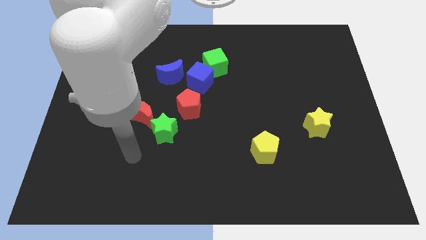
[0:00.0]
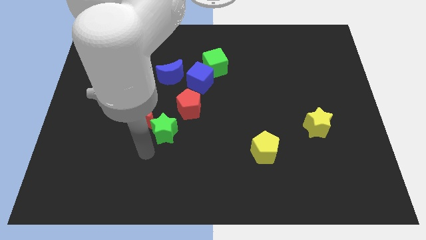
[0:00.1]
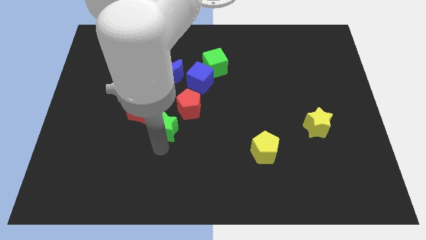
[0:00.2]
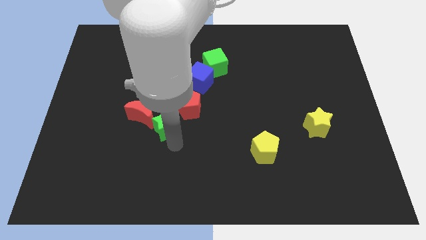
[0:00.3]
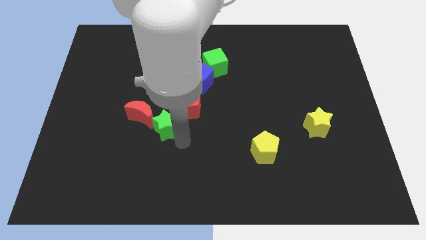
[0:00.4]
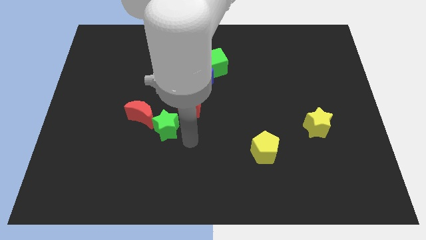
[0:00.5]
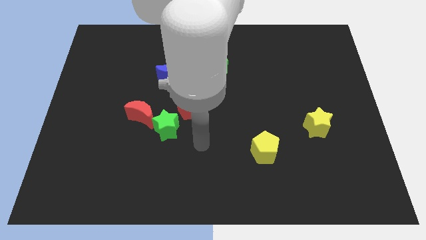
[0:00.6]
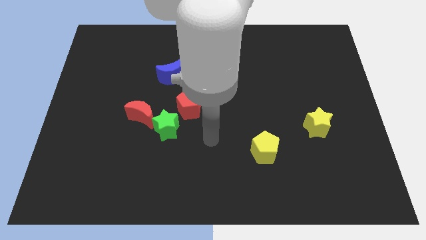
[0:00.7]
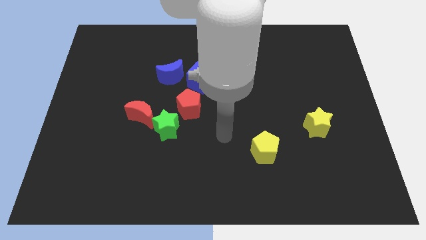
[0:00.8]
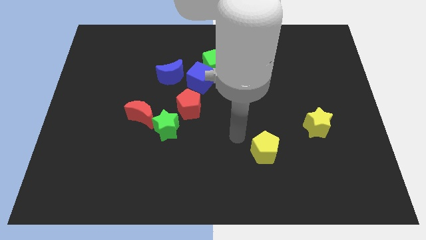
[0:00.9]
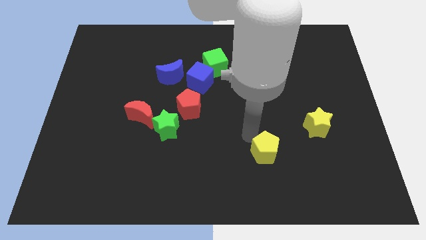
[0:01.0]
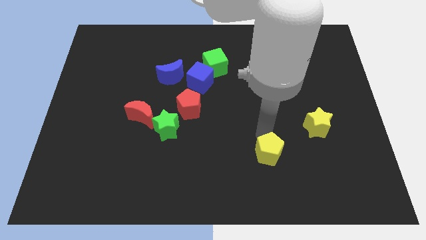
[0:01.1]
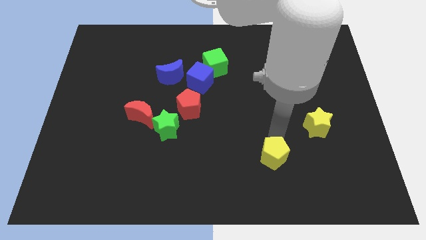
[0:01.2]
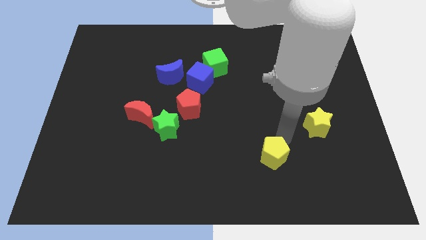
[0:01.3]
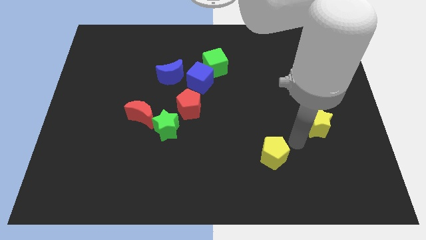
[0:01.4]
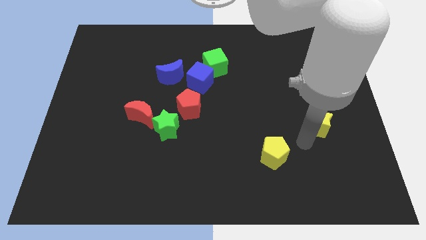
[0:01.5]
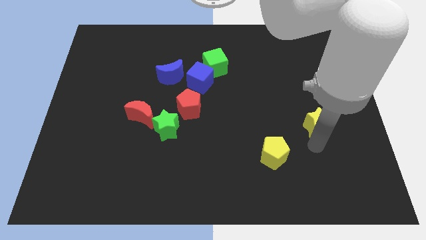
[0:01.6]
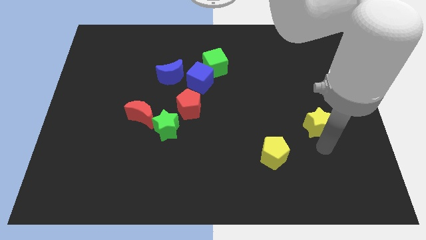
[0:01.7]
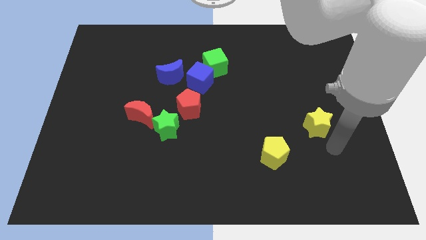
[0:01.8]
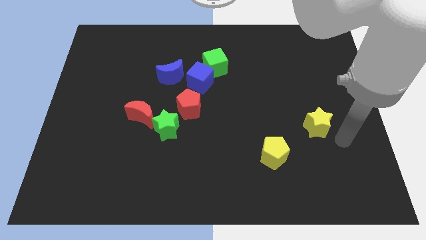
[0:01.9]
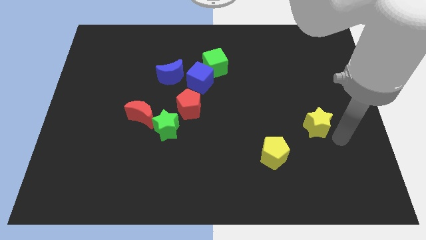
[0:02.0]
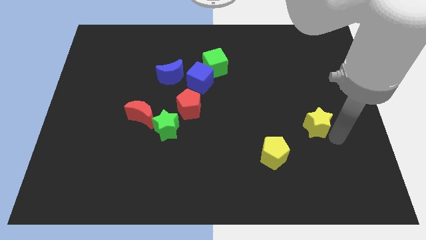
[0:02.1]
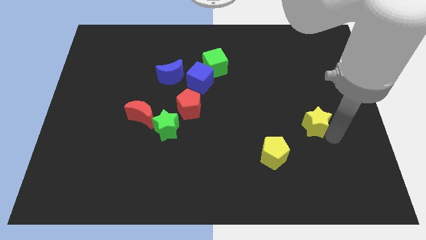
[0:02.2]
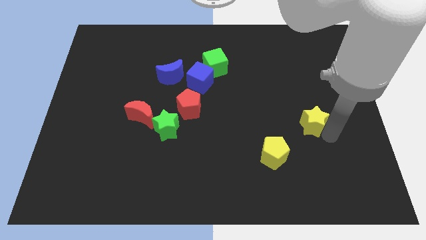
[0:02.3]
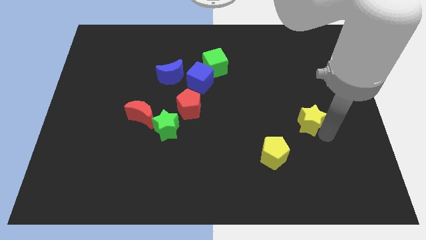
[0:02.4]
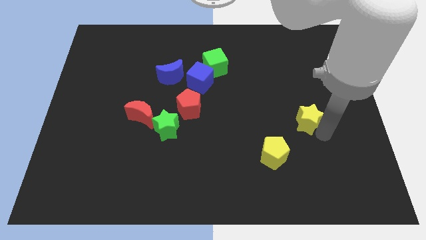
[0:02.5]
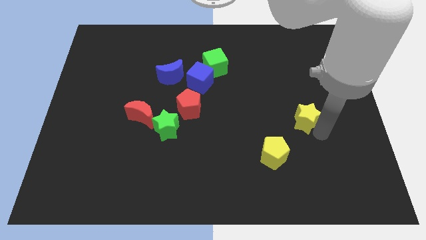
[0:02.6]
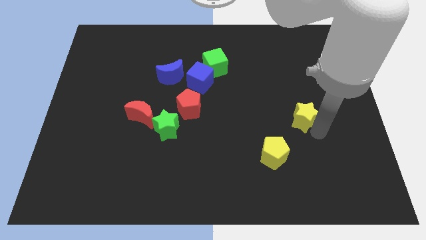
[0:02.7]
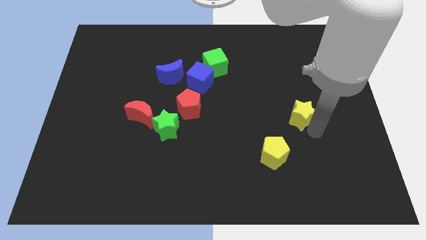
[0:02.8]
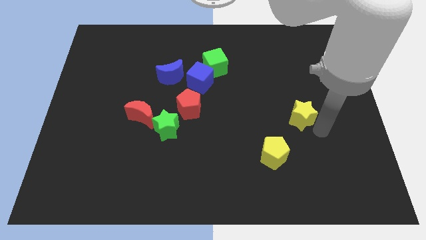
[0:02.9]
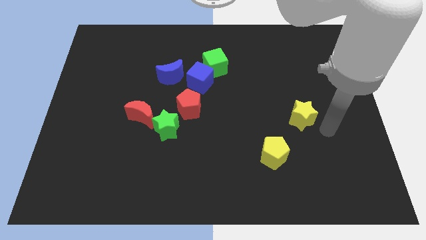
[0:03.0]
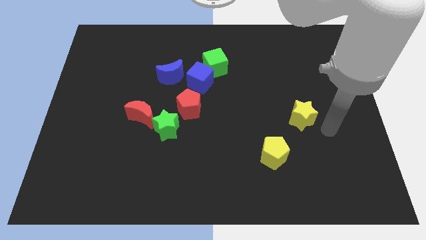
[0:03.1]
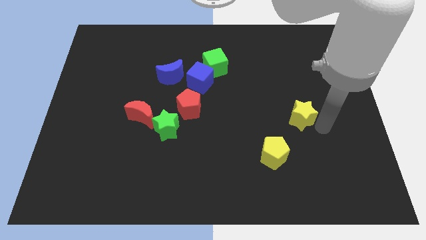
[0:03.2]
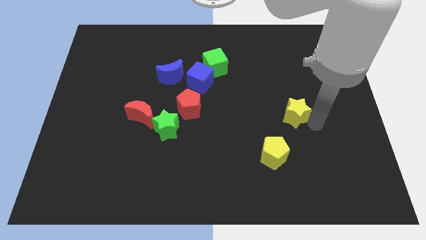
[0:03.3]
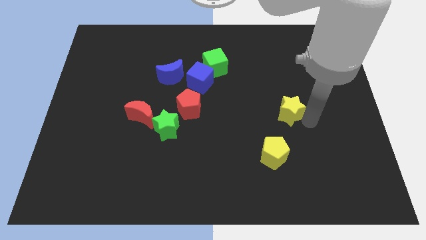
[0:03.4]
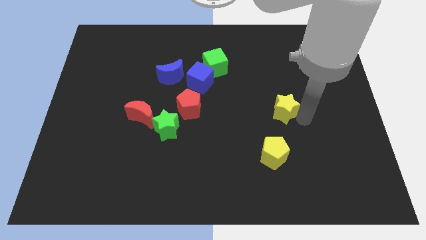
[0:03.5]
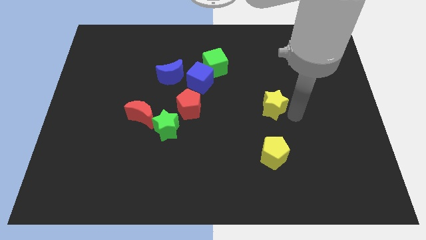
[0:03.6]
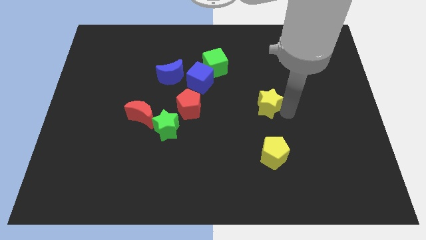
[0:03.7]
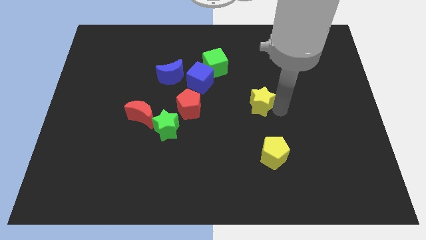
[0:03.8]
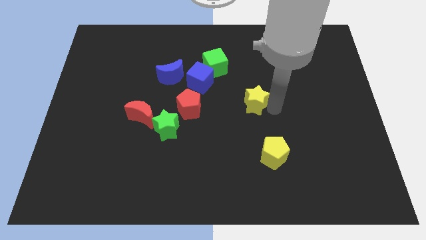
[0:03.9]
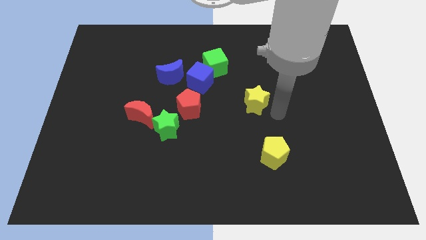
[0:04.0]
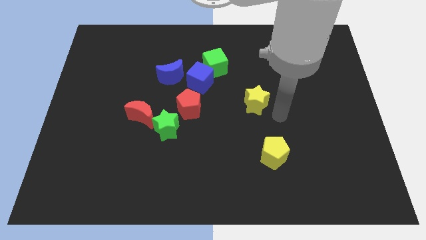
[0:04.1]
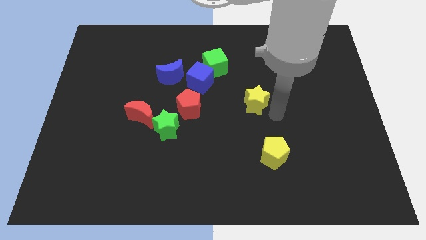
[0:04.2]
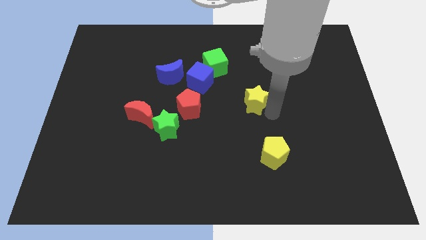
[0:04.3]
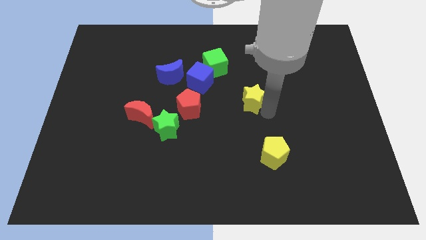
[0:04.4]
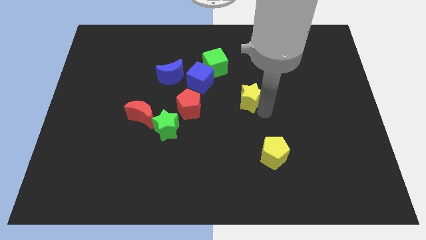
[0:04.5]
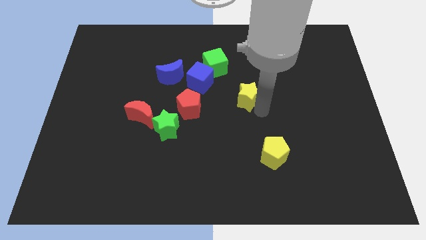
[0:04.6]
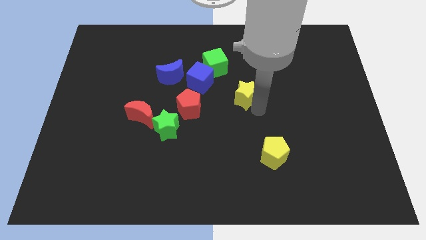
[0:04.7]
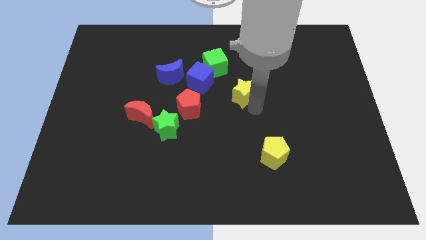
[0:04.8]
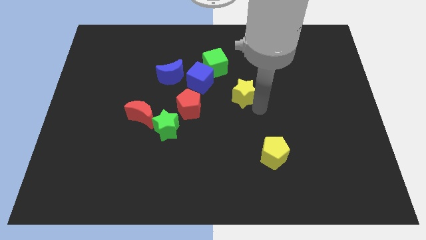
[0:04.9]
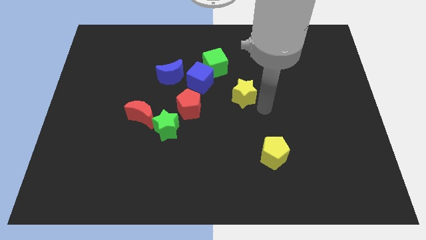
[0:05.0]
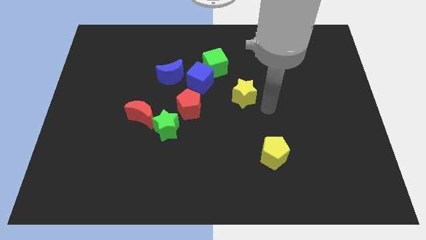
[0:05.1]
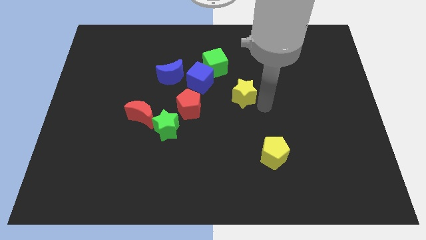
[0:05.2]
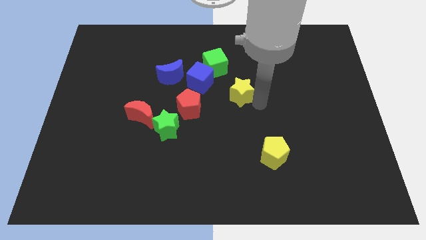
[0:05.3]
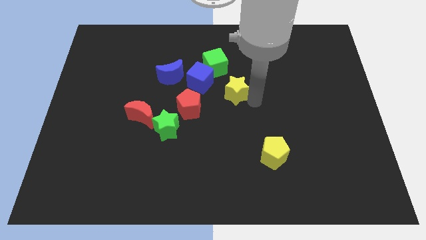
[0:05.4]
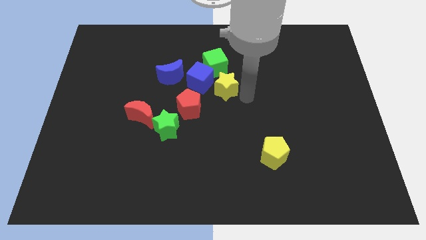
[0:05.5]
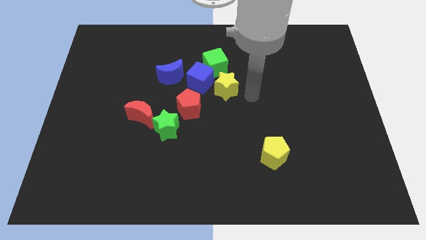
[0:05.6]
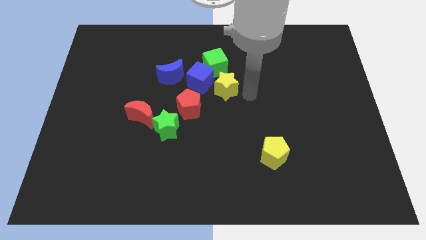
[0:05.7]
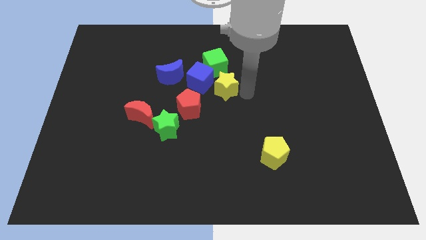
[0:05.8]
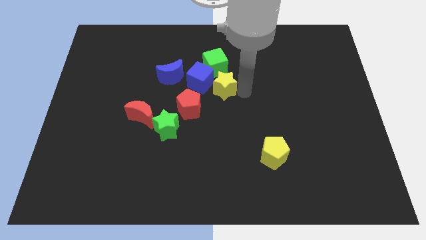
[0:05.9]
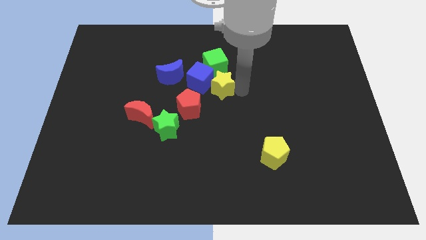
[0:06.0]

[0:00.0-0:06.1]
move the yellow star to the blue cube

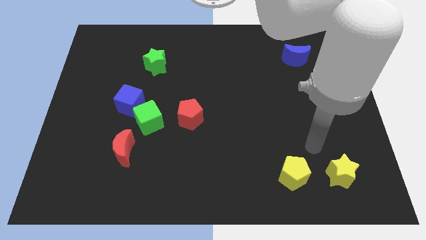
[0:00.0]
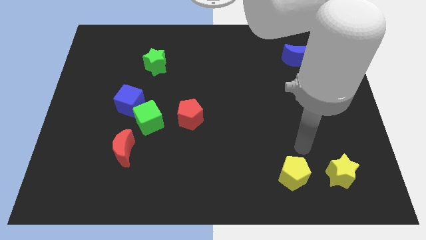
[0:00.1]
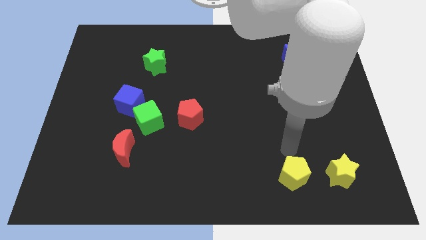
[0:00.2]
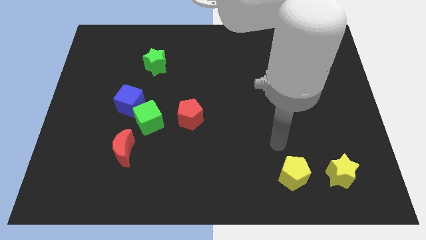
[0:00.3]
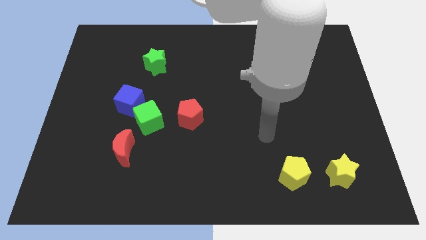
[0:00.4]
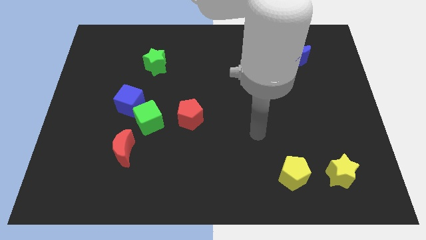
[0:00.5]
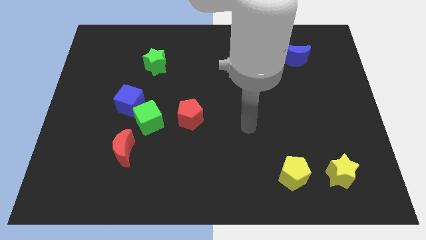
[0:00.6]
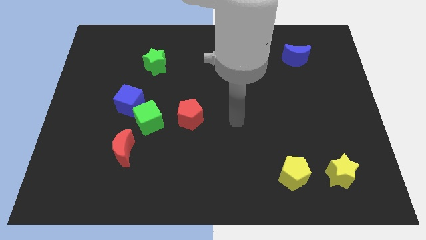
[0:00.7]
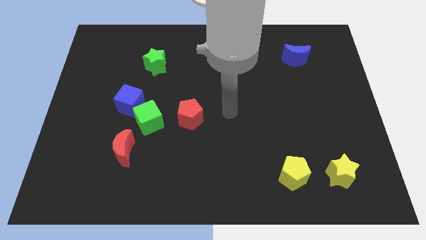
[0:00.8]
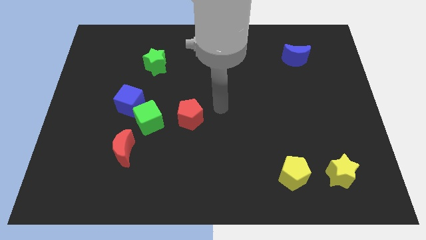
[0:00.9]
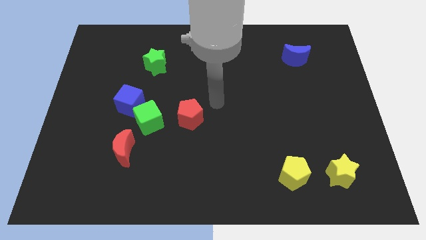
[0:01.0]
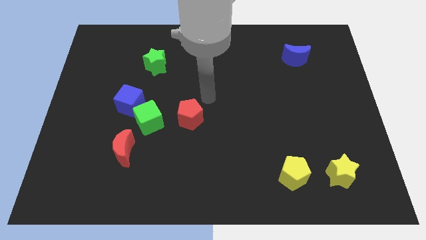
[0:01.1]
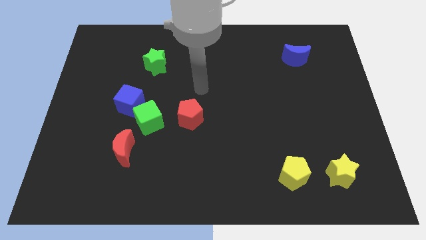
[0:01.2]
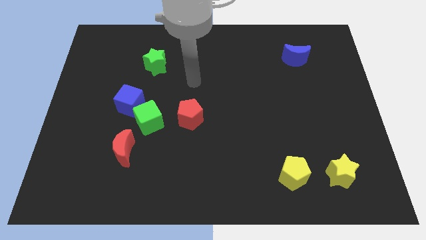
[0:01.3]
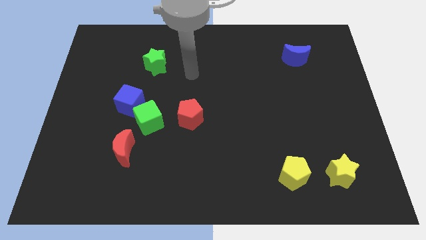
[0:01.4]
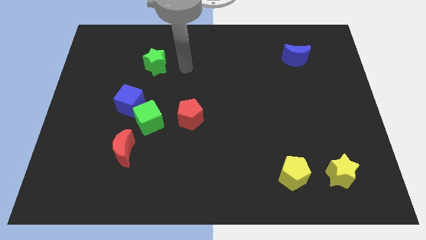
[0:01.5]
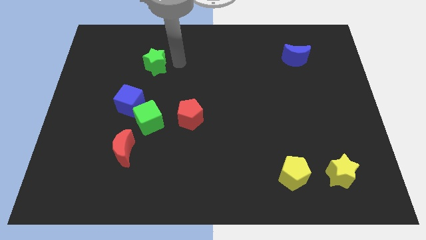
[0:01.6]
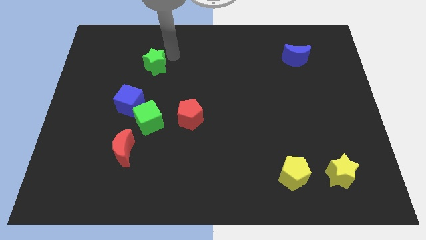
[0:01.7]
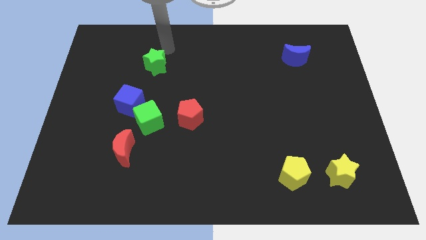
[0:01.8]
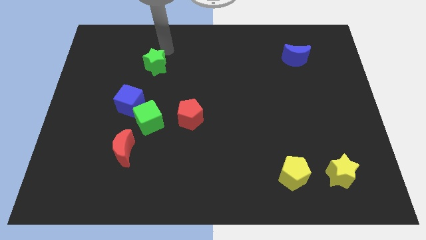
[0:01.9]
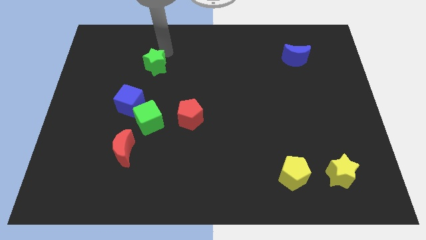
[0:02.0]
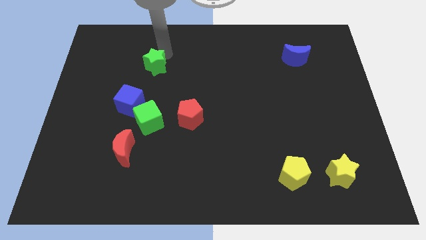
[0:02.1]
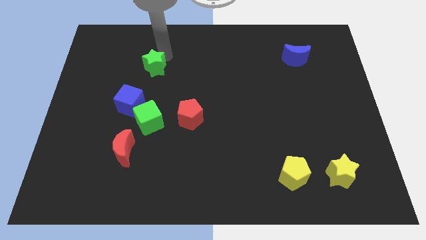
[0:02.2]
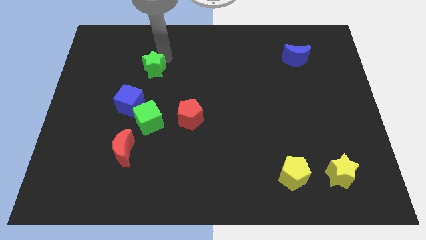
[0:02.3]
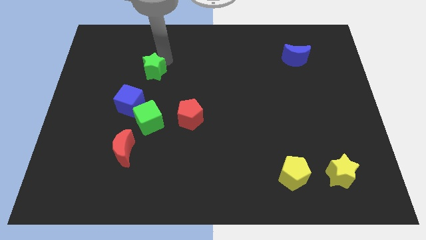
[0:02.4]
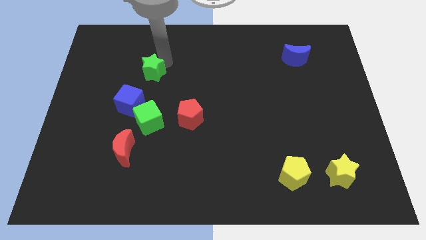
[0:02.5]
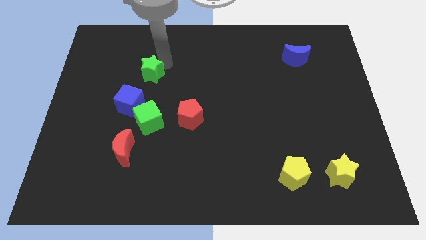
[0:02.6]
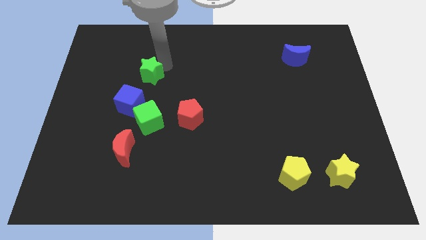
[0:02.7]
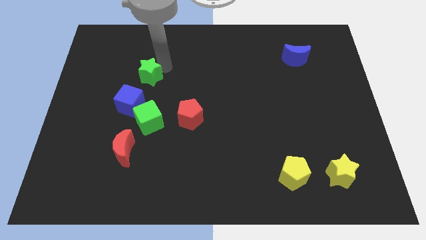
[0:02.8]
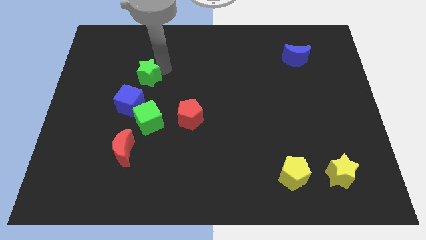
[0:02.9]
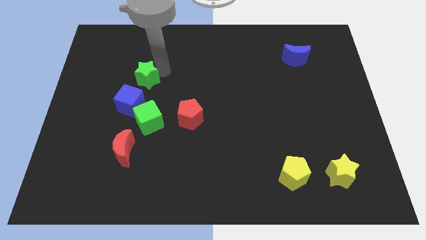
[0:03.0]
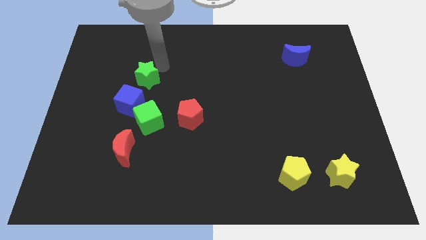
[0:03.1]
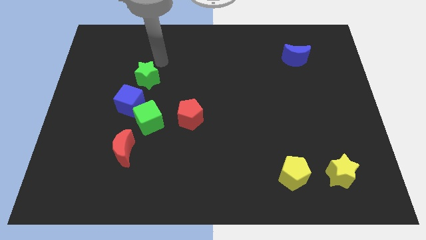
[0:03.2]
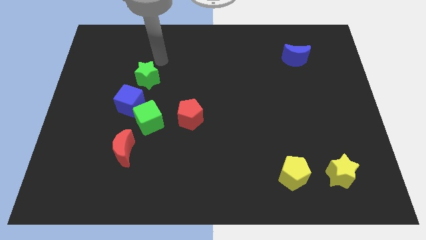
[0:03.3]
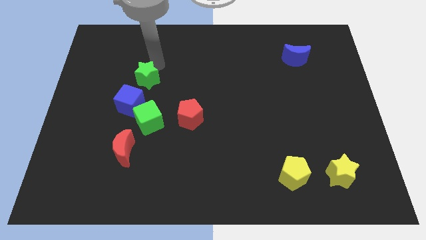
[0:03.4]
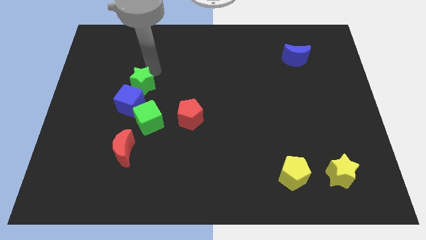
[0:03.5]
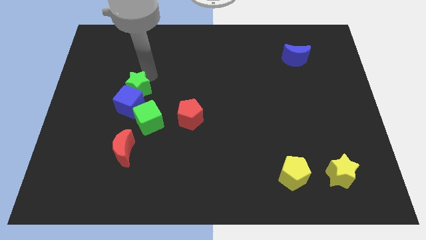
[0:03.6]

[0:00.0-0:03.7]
put the green star close to the blue cube
